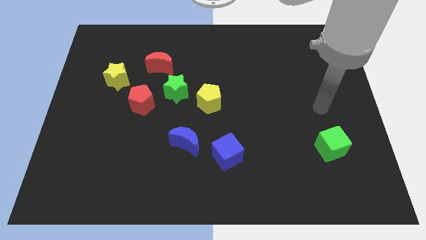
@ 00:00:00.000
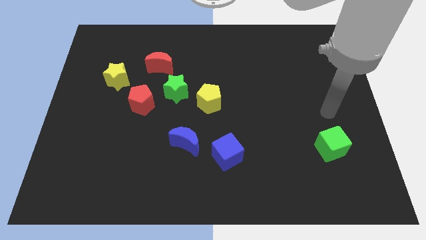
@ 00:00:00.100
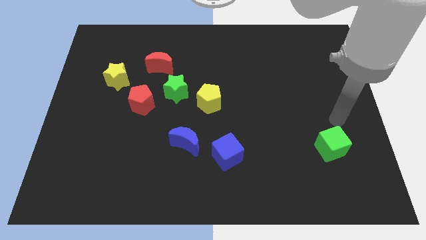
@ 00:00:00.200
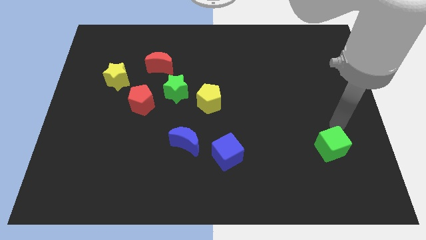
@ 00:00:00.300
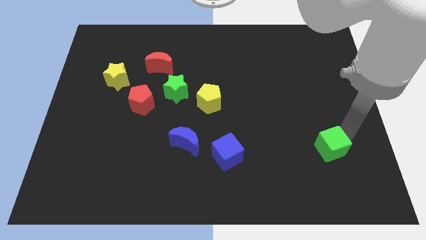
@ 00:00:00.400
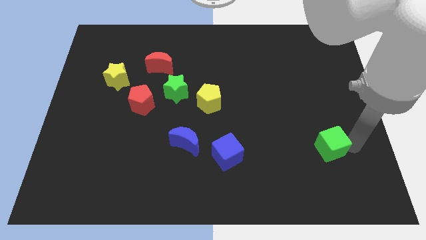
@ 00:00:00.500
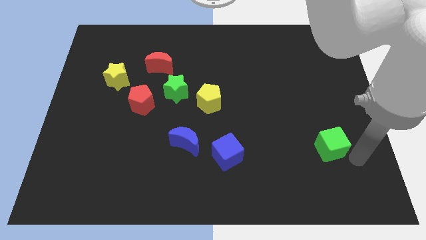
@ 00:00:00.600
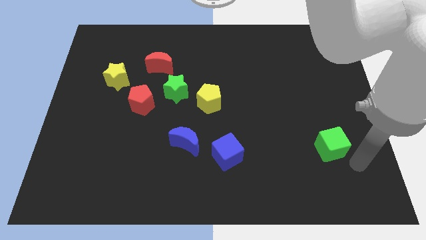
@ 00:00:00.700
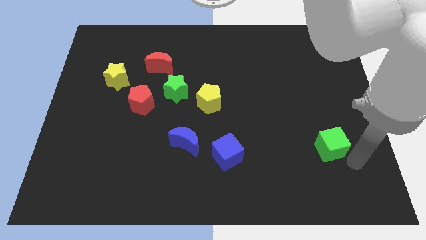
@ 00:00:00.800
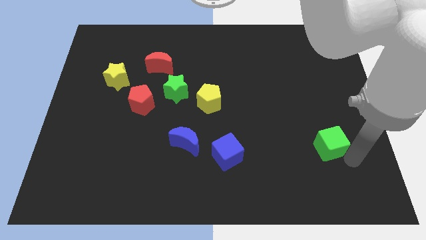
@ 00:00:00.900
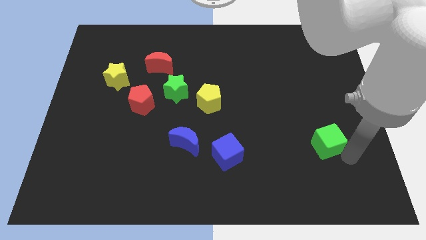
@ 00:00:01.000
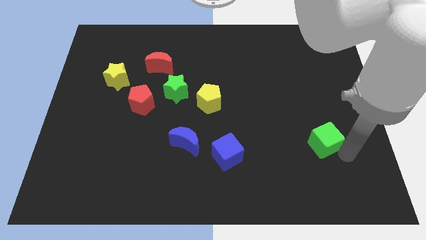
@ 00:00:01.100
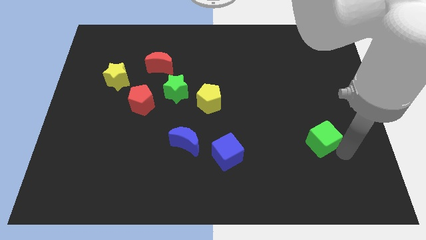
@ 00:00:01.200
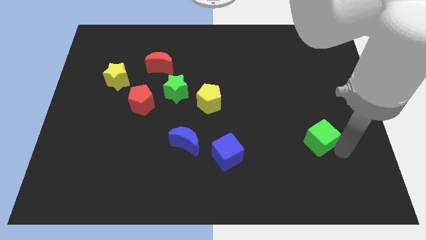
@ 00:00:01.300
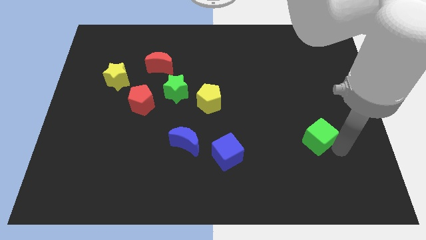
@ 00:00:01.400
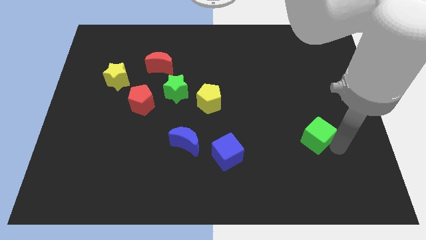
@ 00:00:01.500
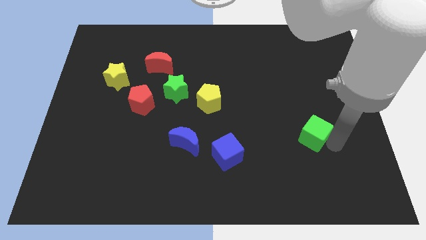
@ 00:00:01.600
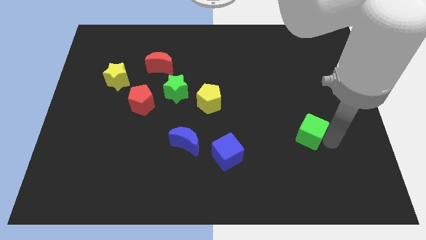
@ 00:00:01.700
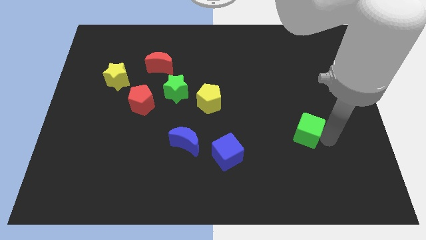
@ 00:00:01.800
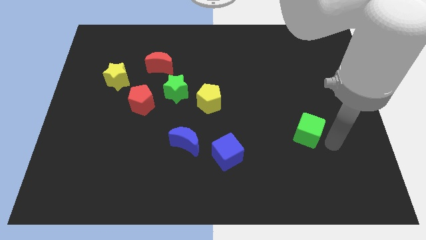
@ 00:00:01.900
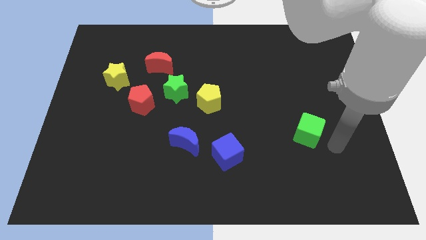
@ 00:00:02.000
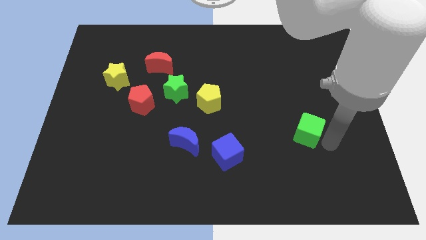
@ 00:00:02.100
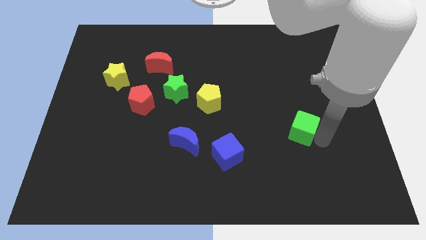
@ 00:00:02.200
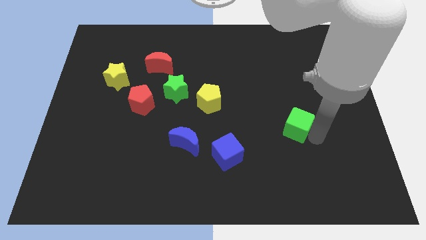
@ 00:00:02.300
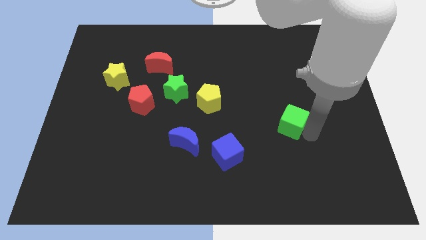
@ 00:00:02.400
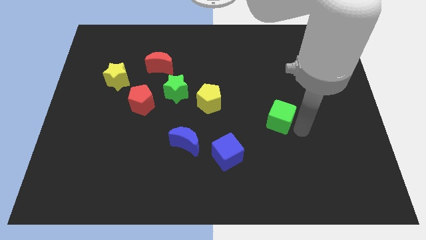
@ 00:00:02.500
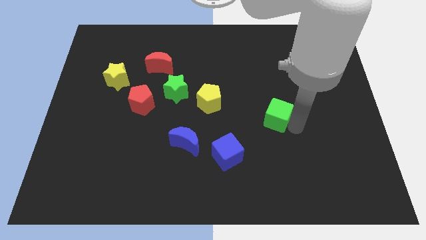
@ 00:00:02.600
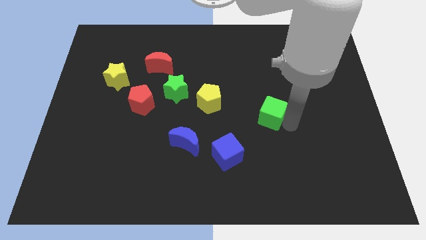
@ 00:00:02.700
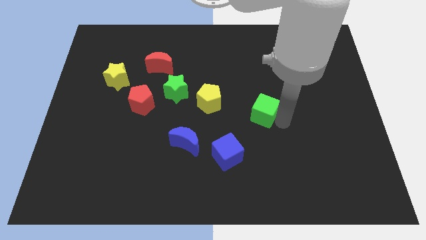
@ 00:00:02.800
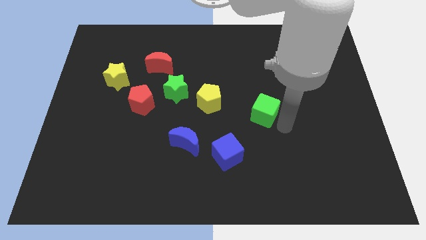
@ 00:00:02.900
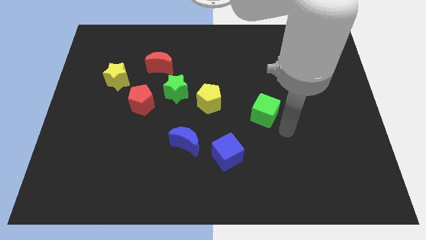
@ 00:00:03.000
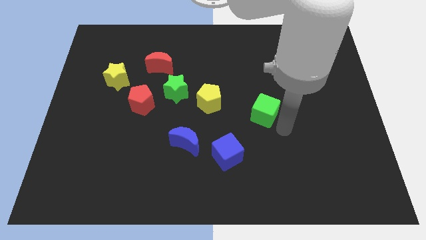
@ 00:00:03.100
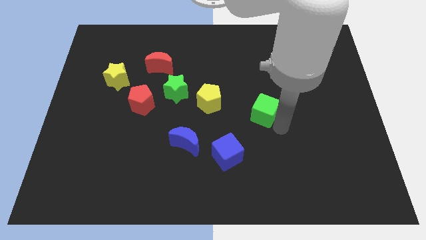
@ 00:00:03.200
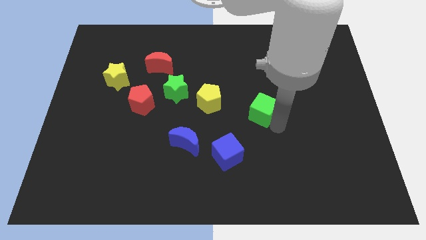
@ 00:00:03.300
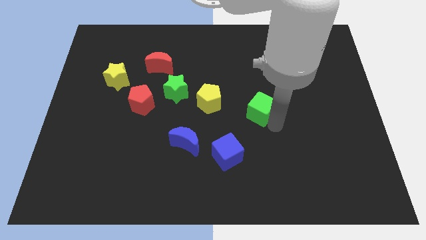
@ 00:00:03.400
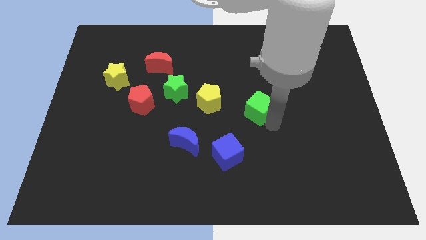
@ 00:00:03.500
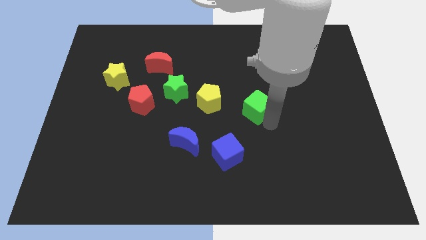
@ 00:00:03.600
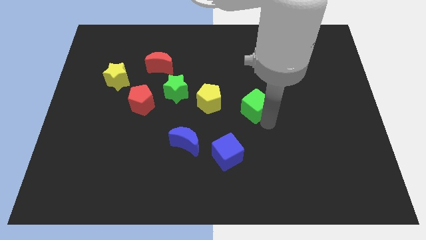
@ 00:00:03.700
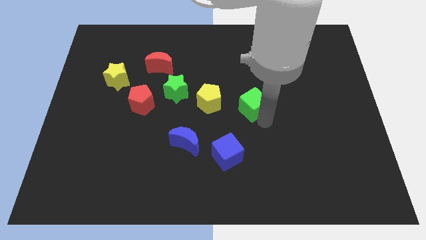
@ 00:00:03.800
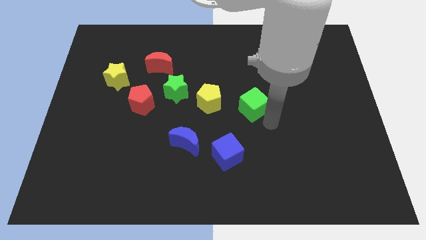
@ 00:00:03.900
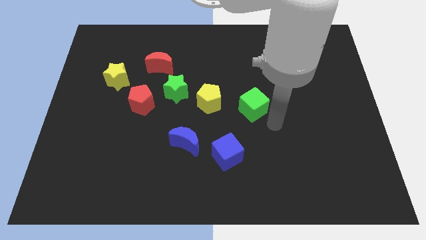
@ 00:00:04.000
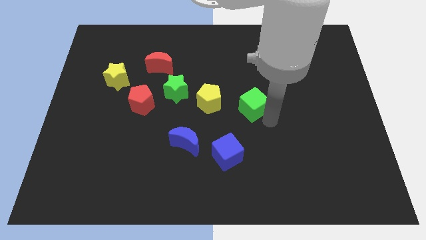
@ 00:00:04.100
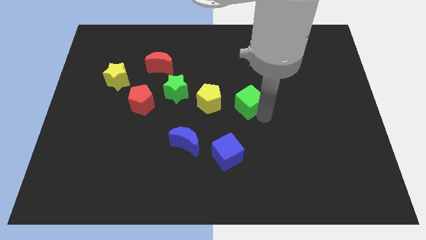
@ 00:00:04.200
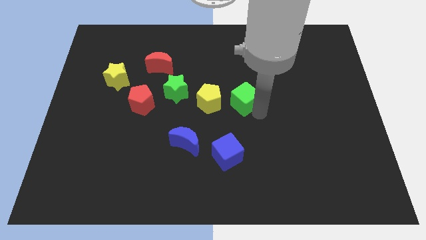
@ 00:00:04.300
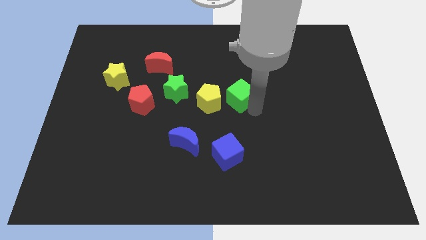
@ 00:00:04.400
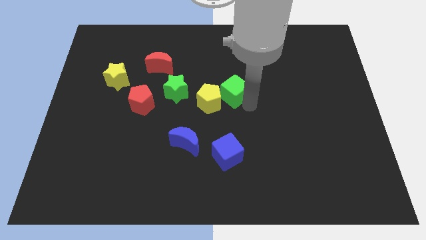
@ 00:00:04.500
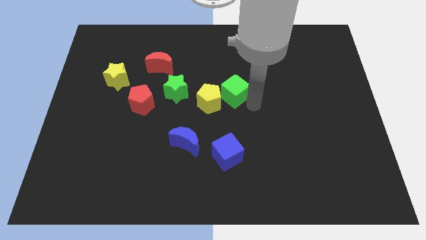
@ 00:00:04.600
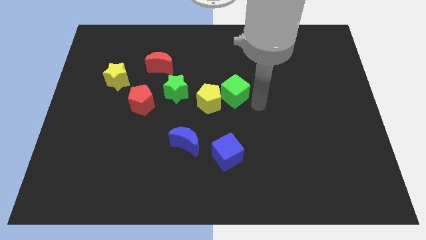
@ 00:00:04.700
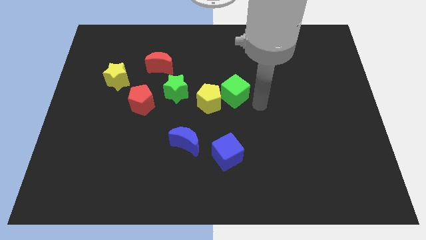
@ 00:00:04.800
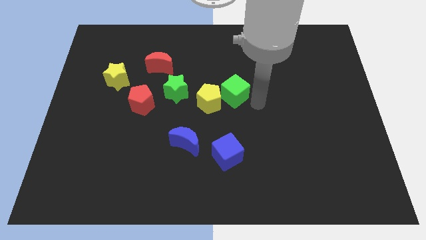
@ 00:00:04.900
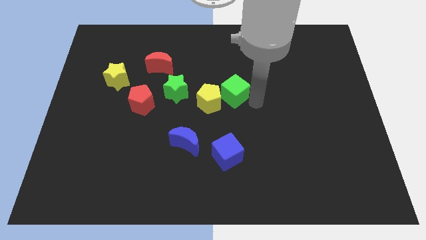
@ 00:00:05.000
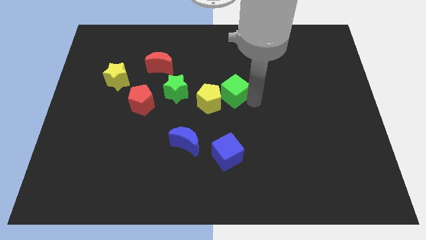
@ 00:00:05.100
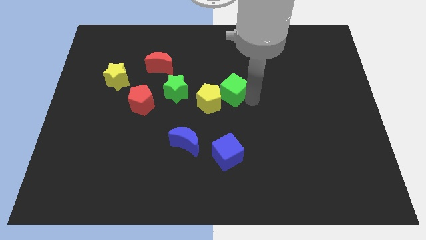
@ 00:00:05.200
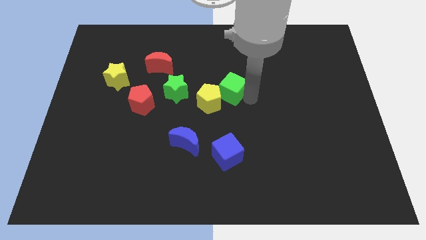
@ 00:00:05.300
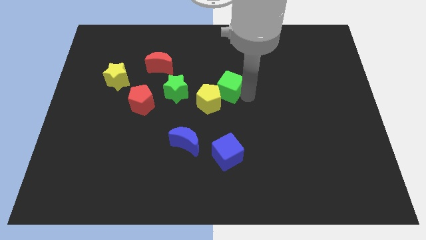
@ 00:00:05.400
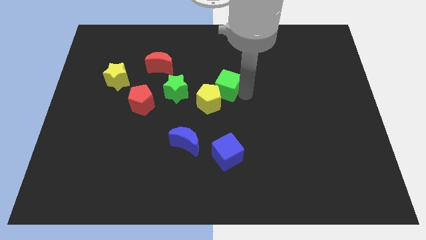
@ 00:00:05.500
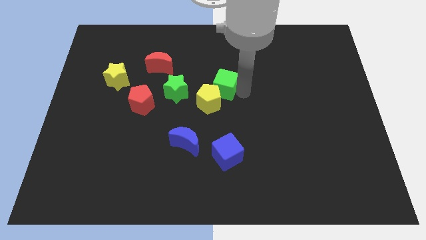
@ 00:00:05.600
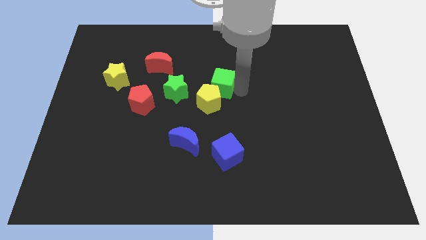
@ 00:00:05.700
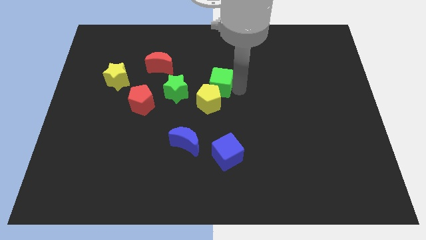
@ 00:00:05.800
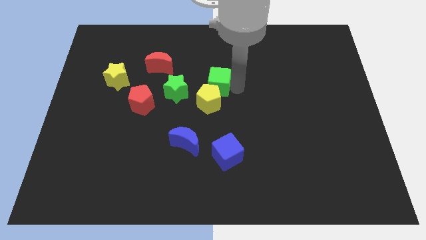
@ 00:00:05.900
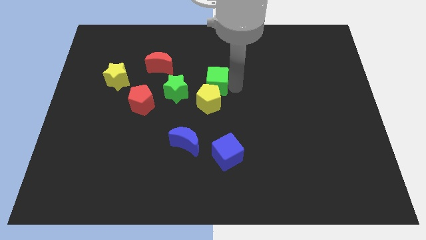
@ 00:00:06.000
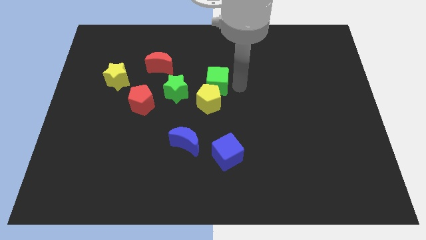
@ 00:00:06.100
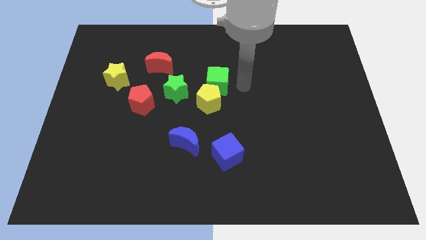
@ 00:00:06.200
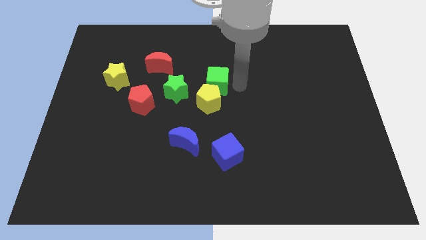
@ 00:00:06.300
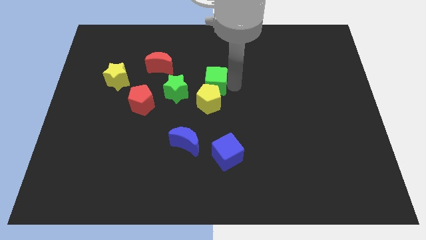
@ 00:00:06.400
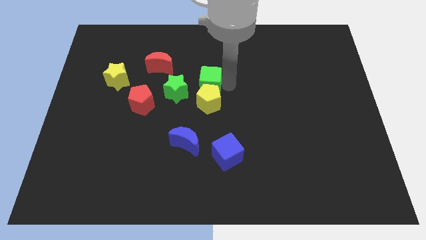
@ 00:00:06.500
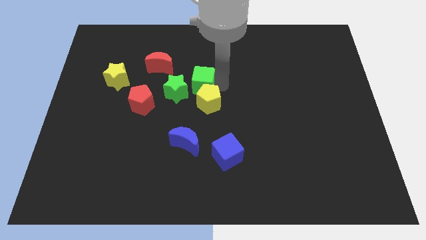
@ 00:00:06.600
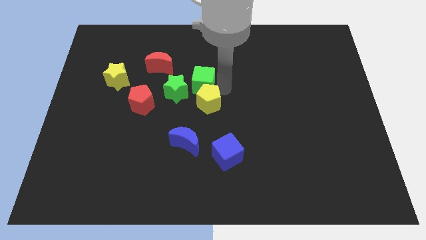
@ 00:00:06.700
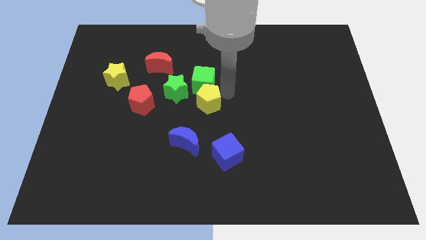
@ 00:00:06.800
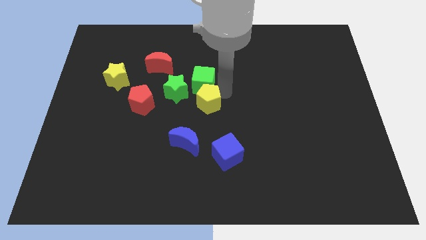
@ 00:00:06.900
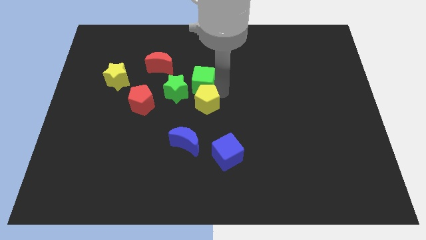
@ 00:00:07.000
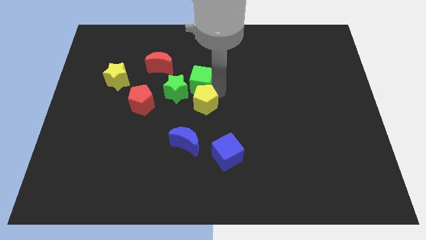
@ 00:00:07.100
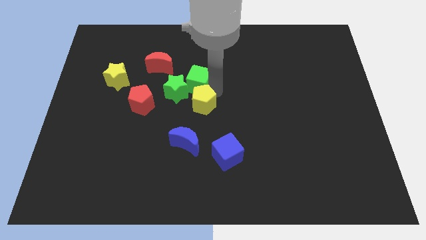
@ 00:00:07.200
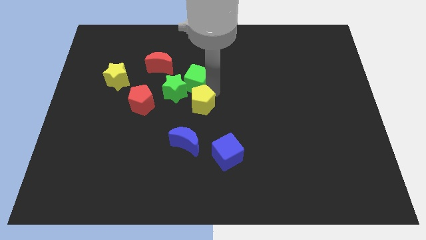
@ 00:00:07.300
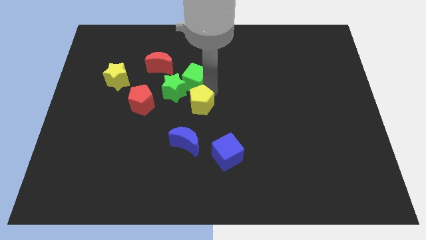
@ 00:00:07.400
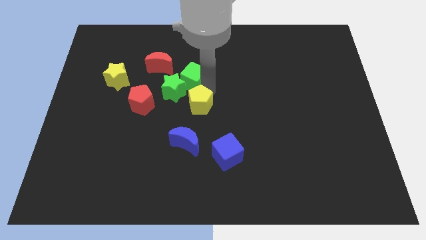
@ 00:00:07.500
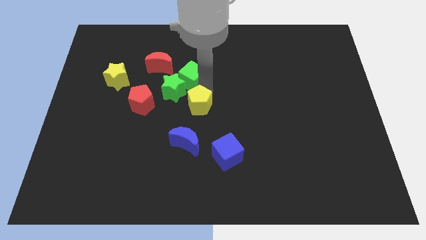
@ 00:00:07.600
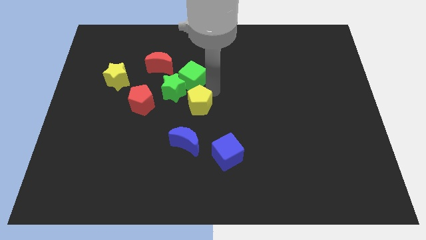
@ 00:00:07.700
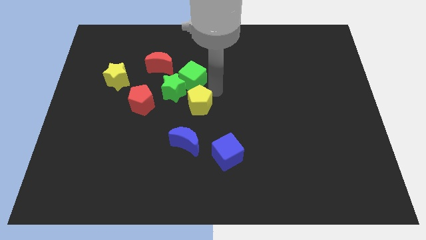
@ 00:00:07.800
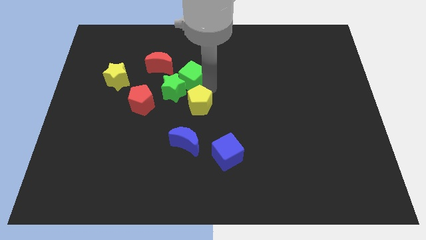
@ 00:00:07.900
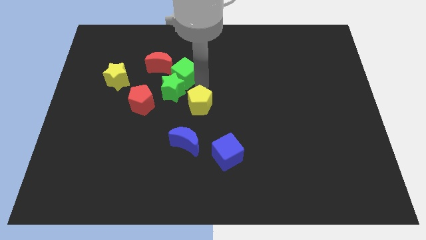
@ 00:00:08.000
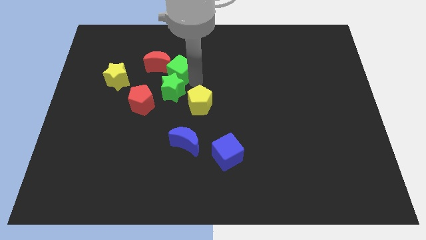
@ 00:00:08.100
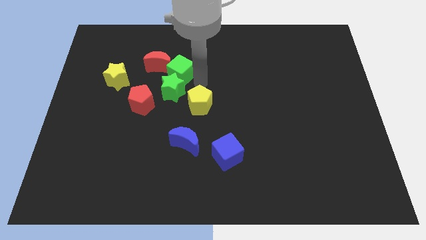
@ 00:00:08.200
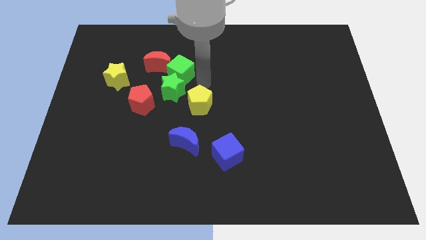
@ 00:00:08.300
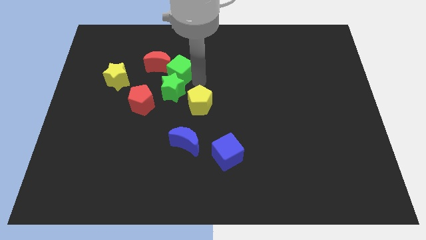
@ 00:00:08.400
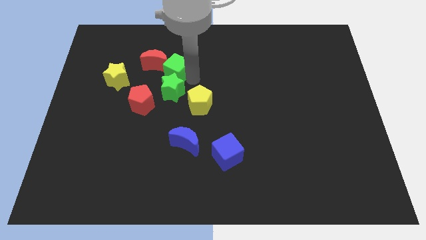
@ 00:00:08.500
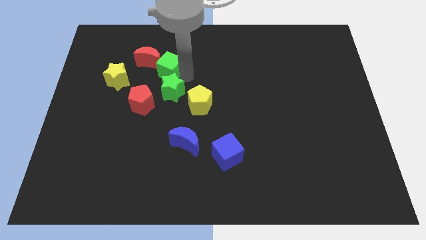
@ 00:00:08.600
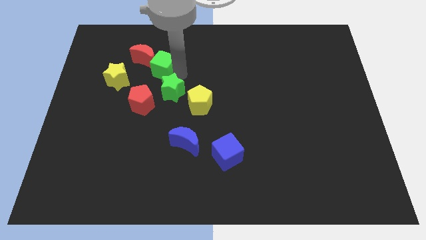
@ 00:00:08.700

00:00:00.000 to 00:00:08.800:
put the green cube to the red moon
